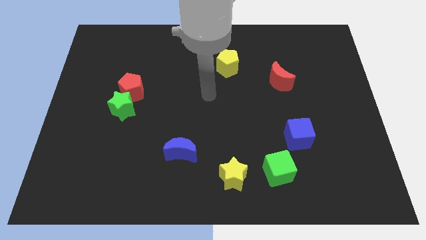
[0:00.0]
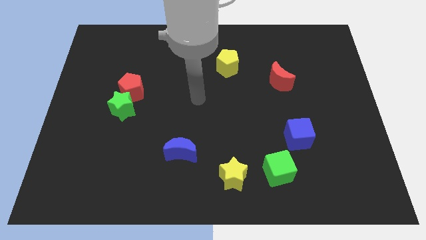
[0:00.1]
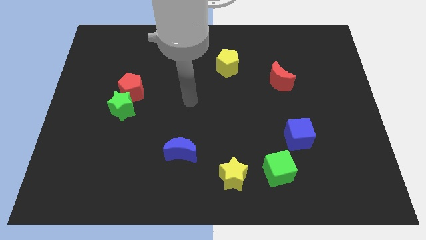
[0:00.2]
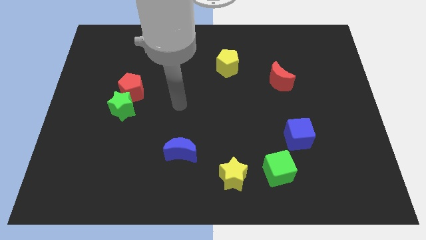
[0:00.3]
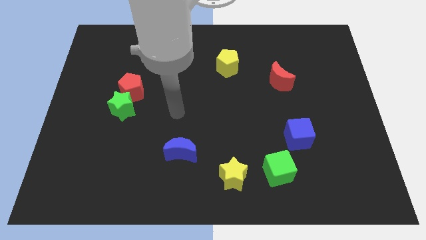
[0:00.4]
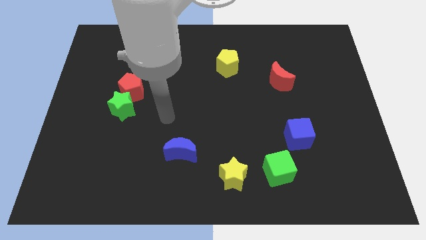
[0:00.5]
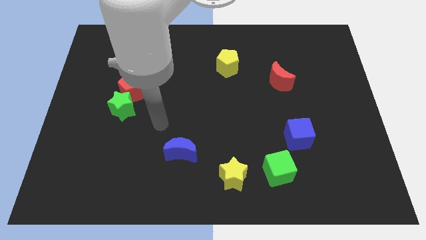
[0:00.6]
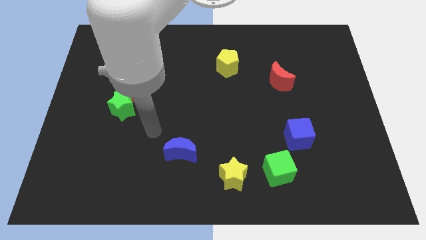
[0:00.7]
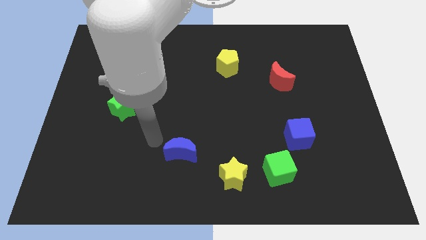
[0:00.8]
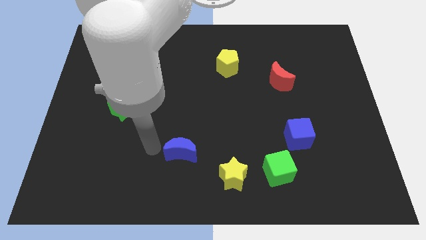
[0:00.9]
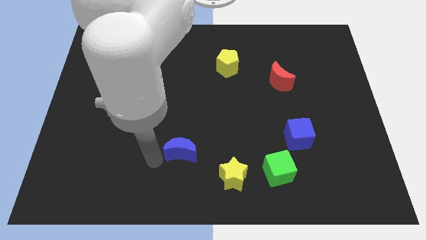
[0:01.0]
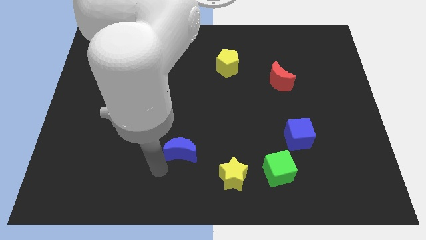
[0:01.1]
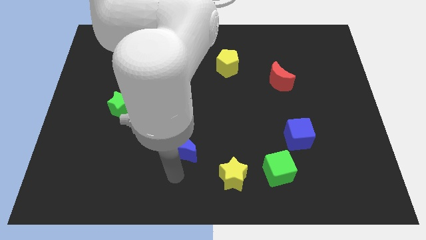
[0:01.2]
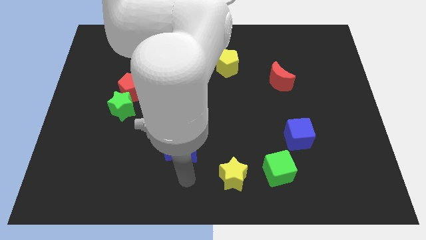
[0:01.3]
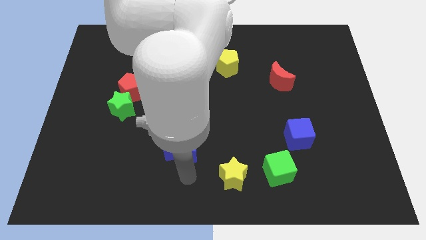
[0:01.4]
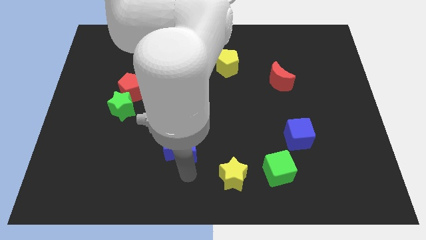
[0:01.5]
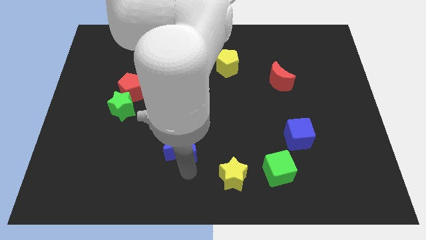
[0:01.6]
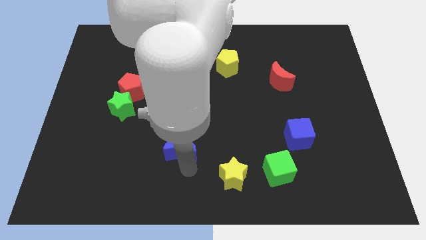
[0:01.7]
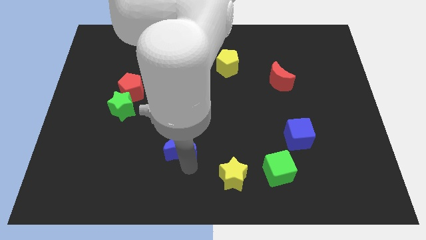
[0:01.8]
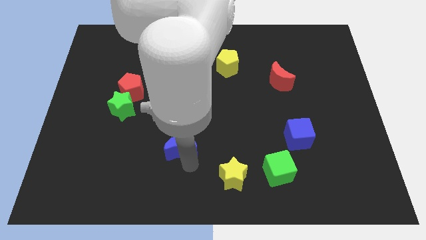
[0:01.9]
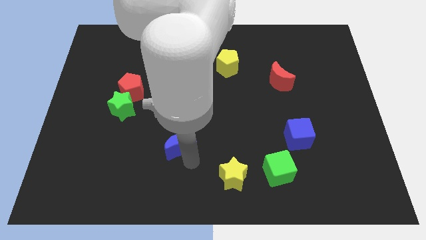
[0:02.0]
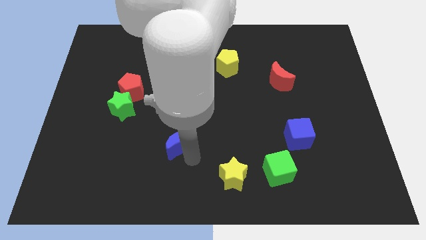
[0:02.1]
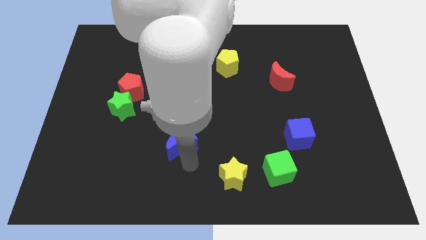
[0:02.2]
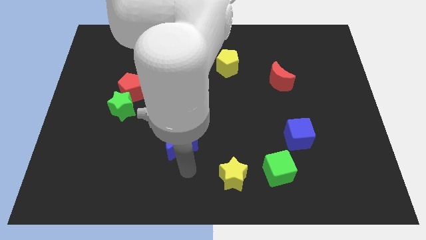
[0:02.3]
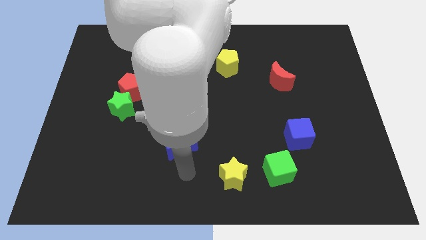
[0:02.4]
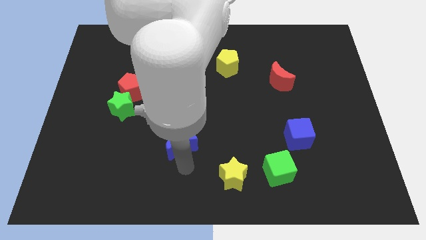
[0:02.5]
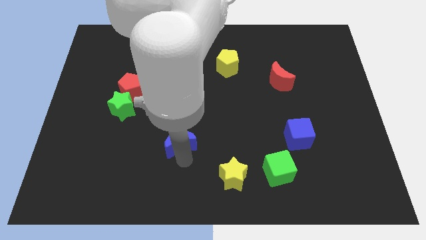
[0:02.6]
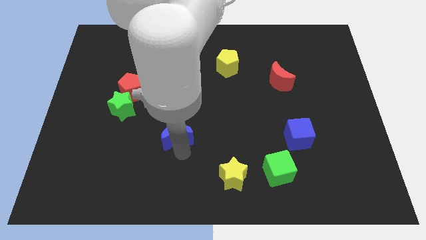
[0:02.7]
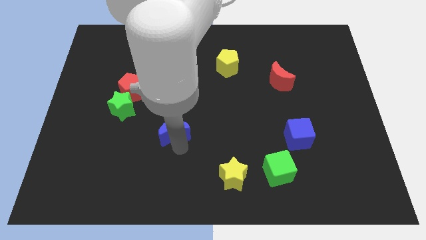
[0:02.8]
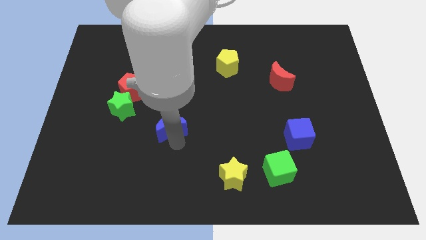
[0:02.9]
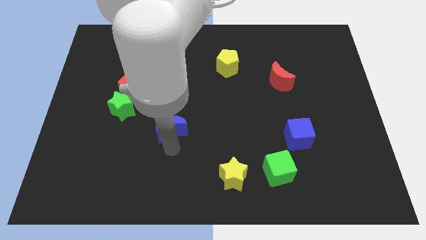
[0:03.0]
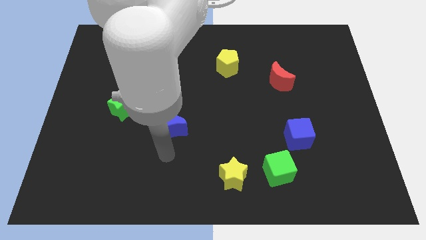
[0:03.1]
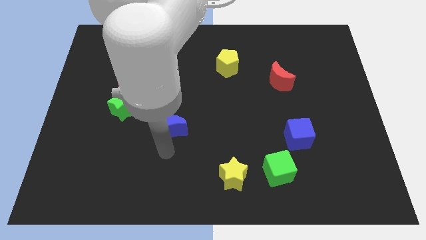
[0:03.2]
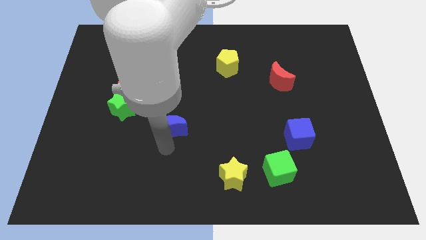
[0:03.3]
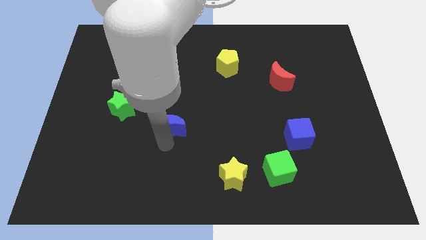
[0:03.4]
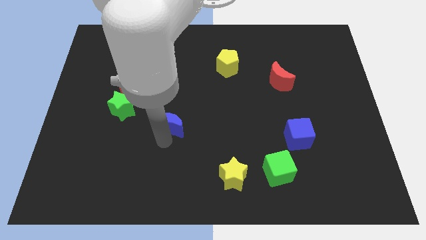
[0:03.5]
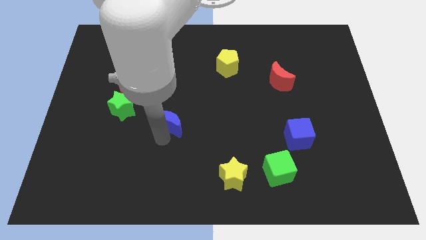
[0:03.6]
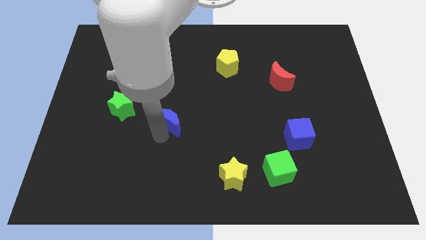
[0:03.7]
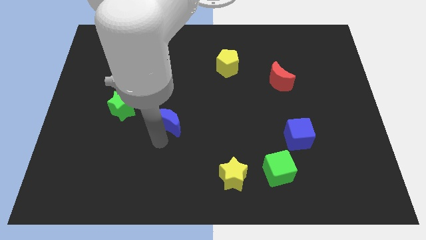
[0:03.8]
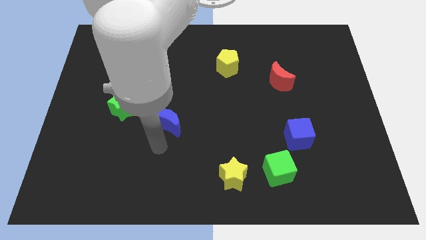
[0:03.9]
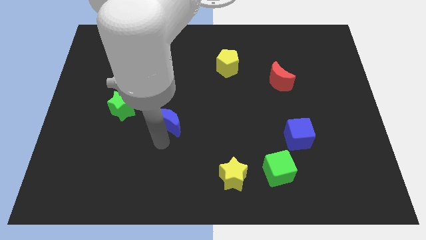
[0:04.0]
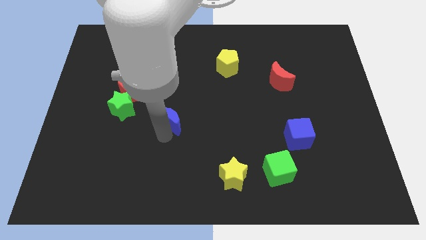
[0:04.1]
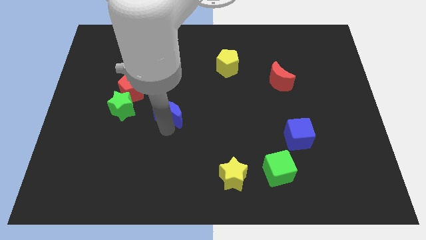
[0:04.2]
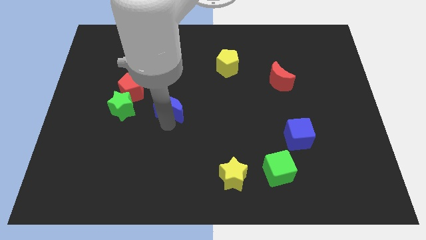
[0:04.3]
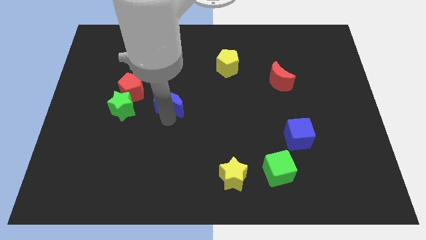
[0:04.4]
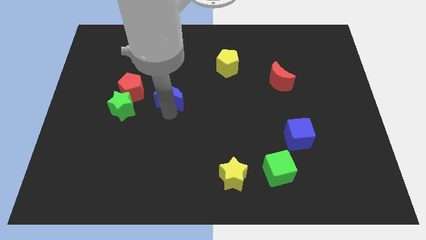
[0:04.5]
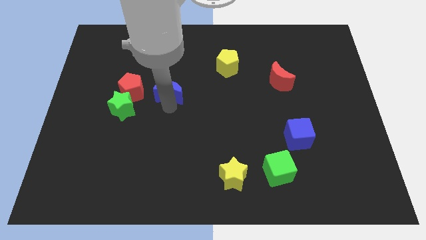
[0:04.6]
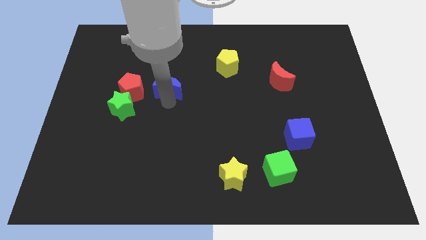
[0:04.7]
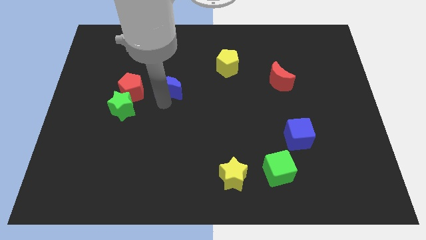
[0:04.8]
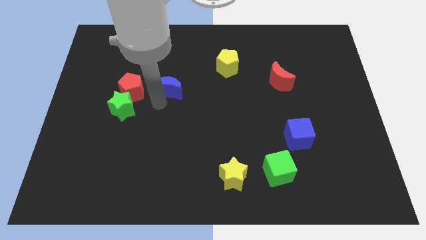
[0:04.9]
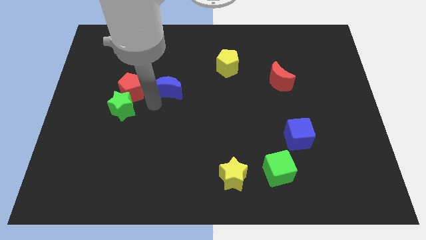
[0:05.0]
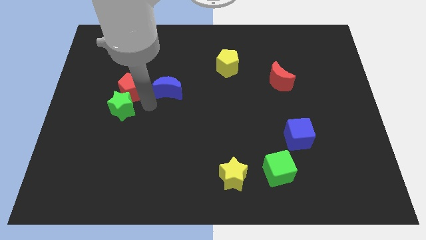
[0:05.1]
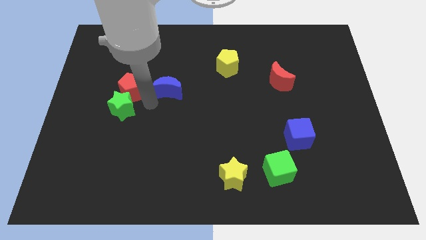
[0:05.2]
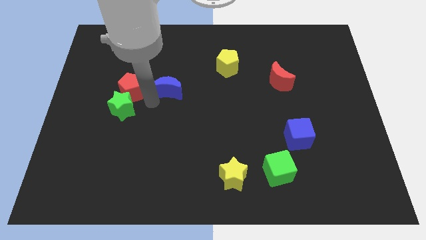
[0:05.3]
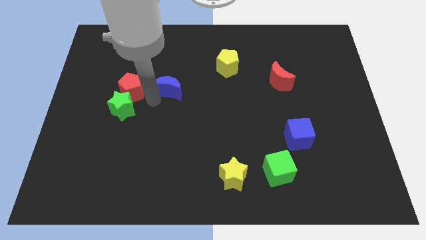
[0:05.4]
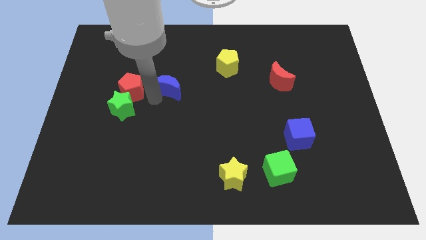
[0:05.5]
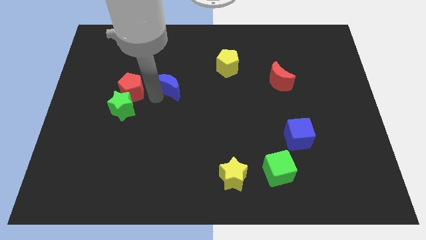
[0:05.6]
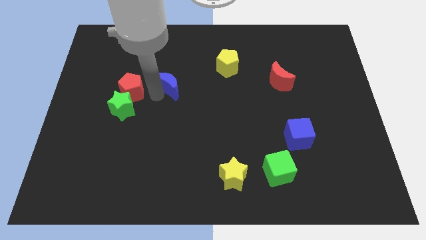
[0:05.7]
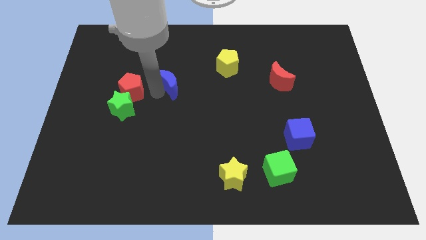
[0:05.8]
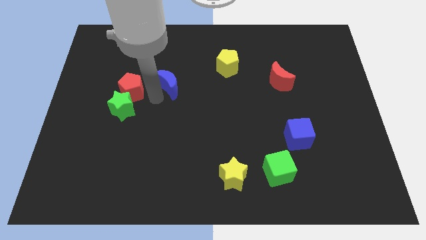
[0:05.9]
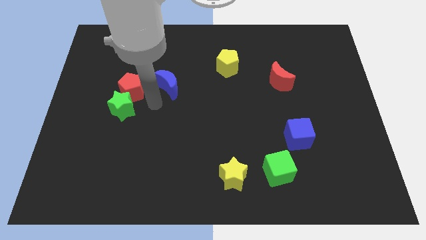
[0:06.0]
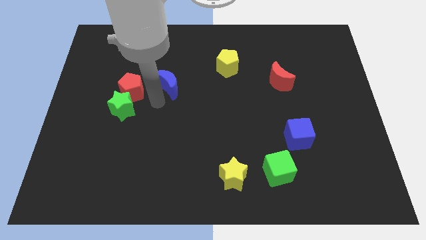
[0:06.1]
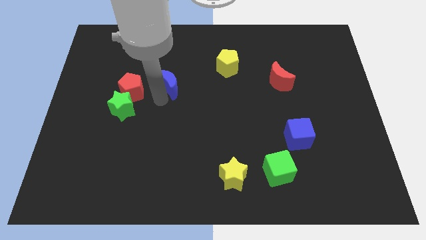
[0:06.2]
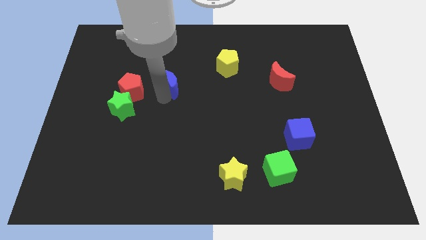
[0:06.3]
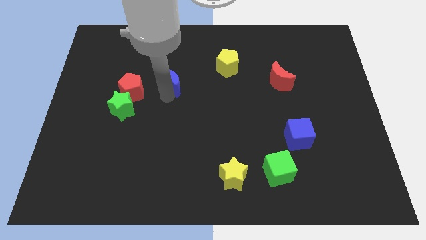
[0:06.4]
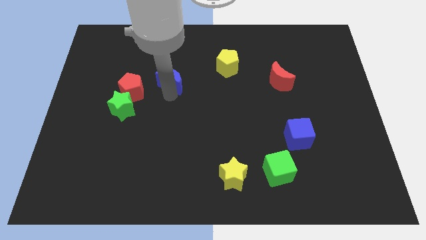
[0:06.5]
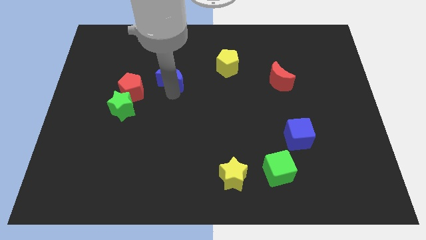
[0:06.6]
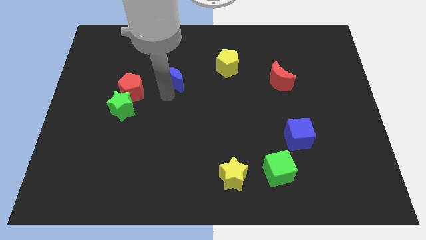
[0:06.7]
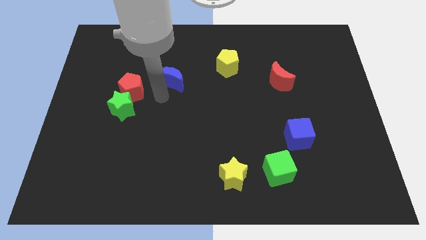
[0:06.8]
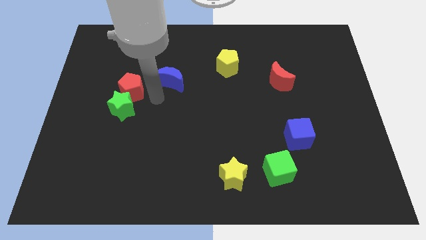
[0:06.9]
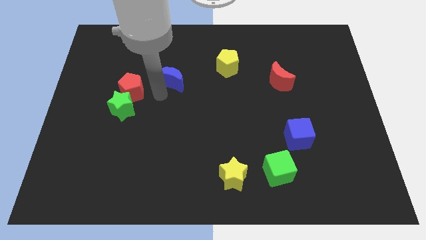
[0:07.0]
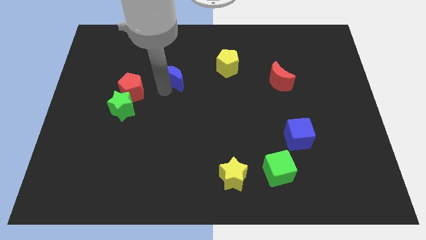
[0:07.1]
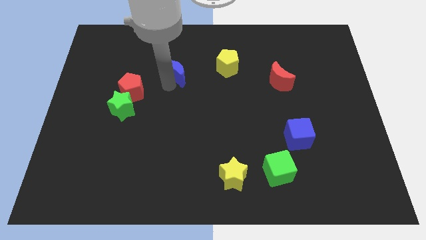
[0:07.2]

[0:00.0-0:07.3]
push the blue moon to the left side of the yellow pentagon
